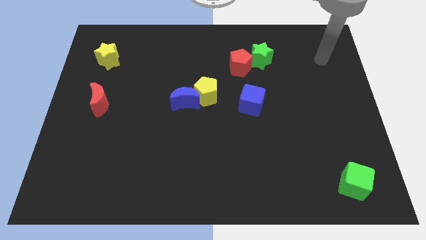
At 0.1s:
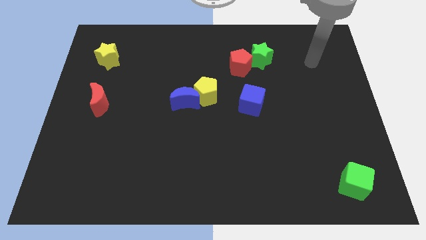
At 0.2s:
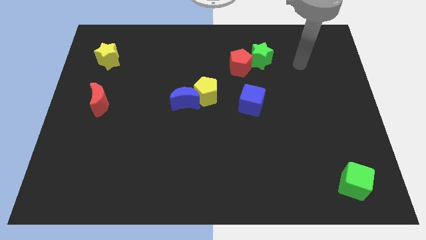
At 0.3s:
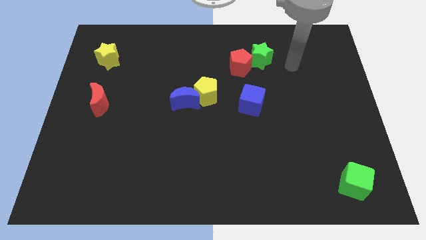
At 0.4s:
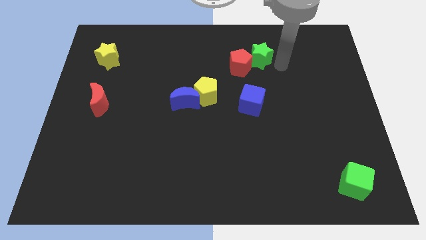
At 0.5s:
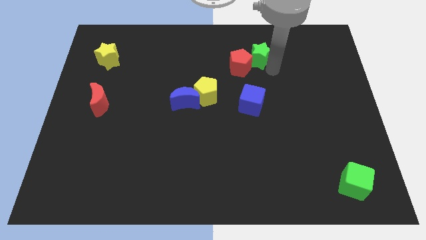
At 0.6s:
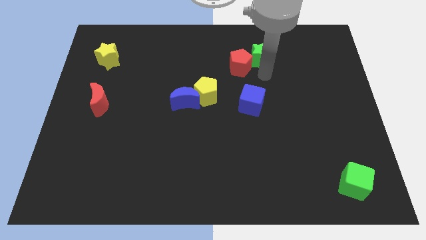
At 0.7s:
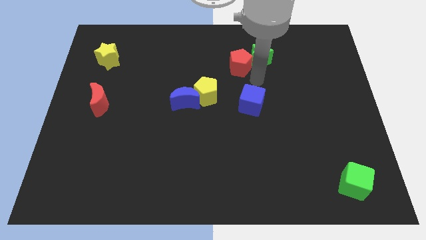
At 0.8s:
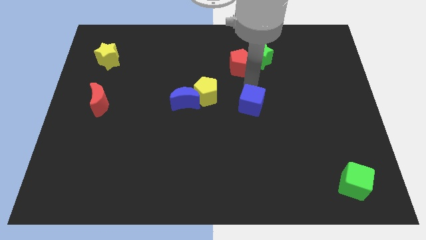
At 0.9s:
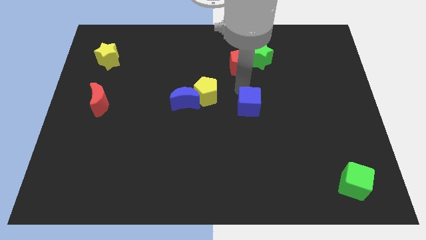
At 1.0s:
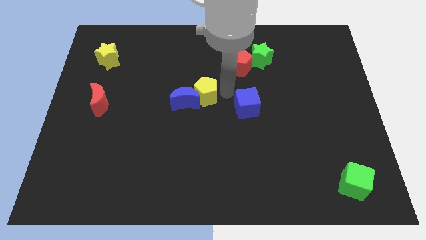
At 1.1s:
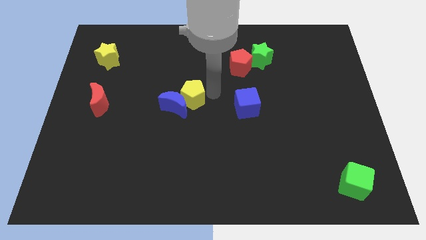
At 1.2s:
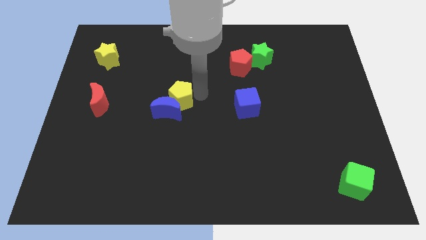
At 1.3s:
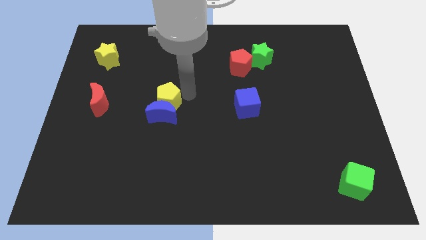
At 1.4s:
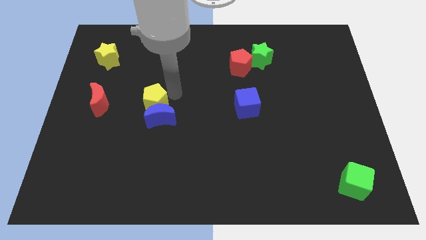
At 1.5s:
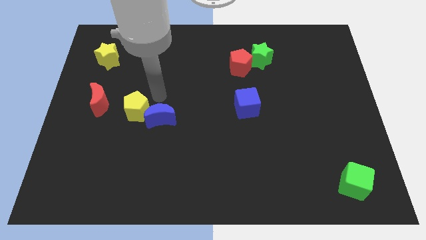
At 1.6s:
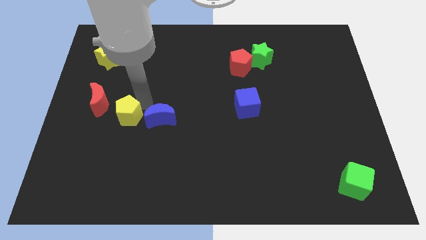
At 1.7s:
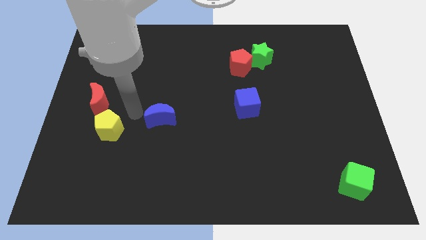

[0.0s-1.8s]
move the blue moon away from the yellow pentagon

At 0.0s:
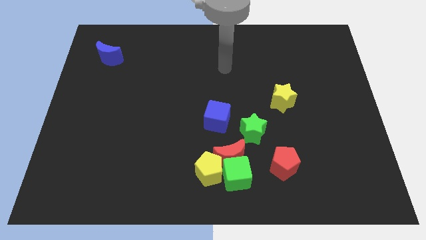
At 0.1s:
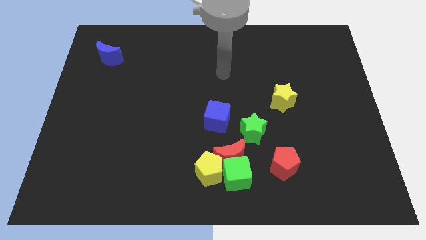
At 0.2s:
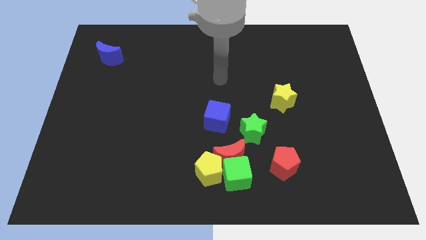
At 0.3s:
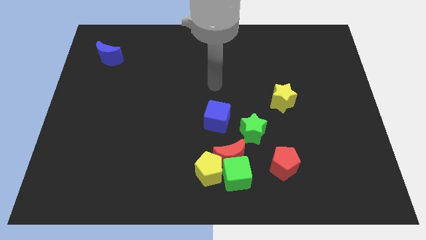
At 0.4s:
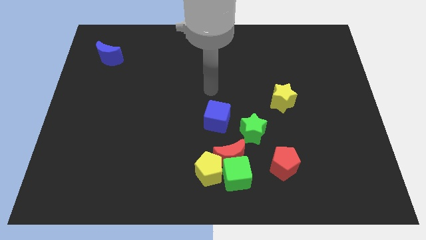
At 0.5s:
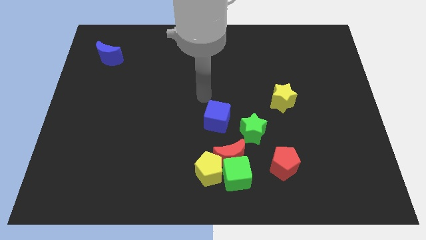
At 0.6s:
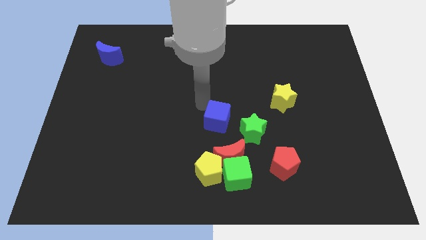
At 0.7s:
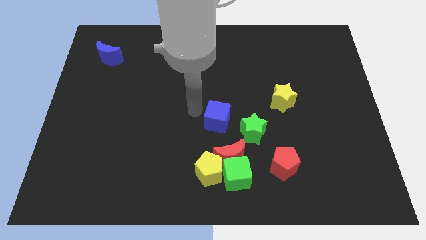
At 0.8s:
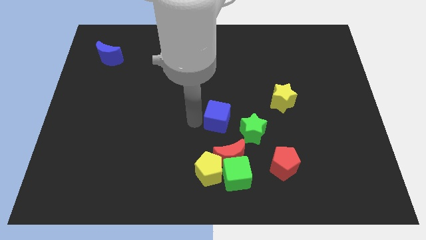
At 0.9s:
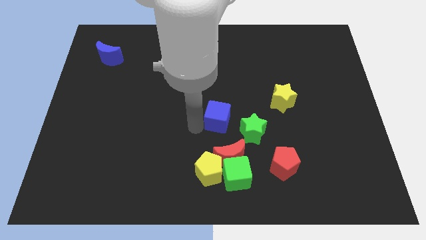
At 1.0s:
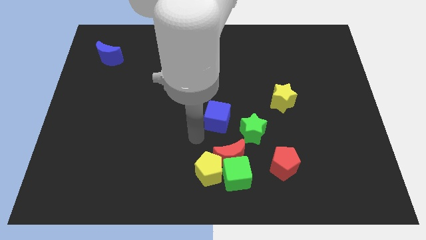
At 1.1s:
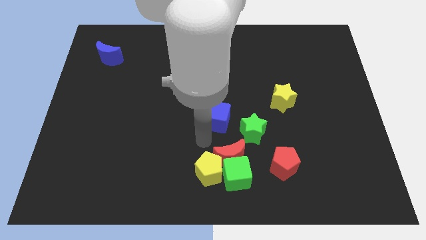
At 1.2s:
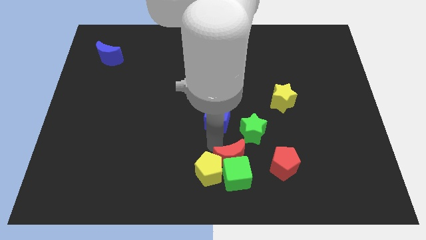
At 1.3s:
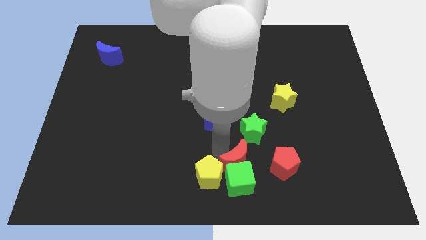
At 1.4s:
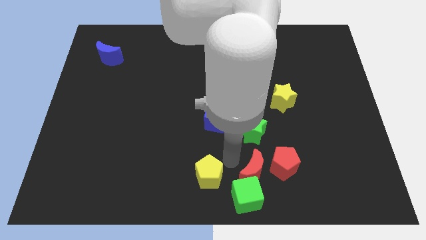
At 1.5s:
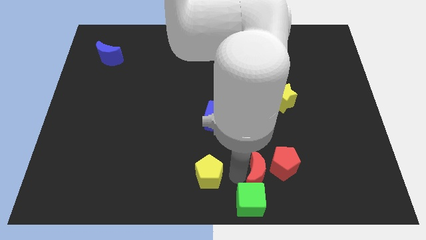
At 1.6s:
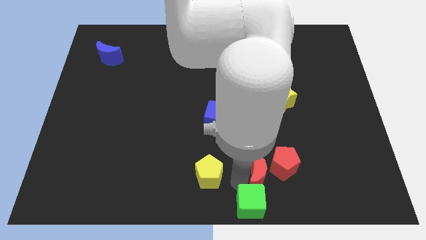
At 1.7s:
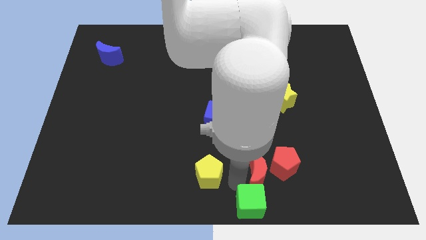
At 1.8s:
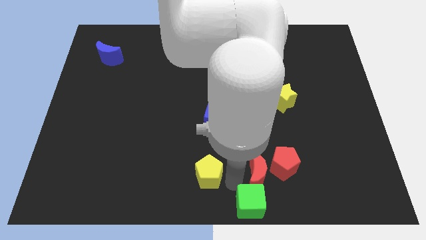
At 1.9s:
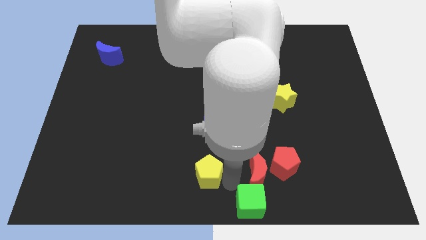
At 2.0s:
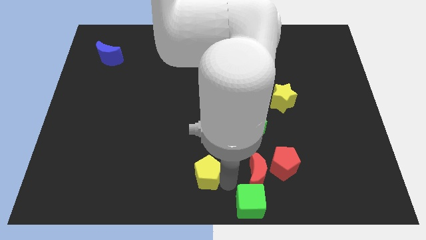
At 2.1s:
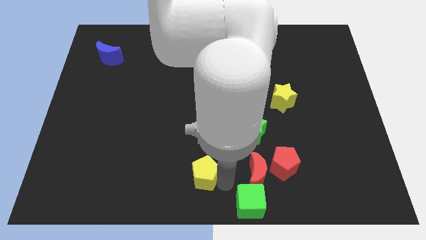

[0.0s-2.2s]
move the yellow pentagon away from the red moon and green cube

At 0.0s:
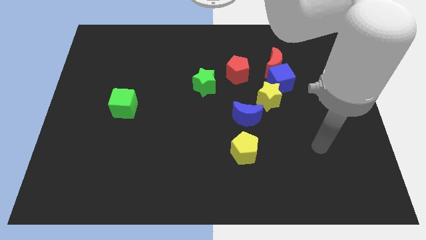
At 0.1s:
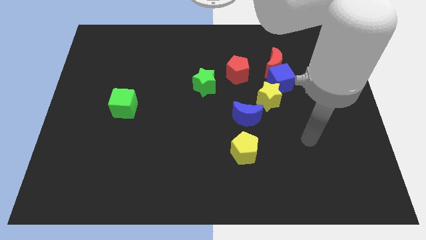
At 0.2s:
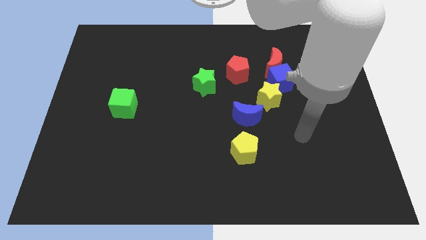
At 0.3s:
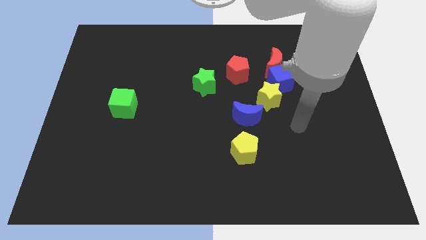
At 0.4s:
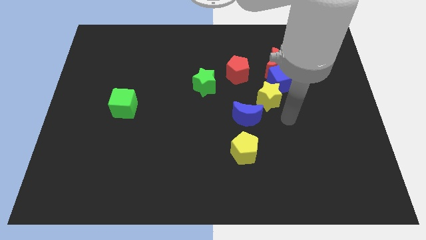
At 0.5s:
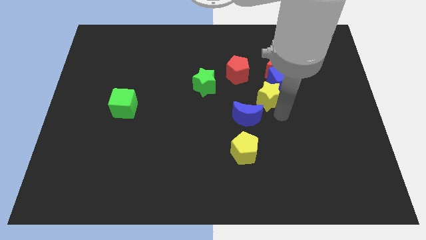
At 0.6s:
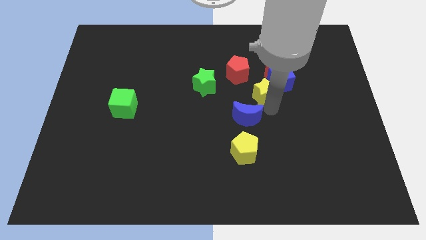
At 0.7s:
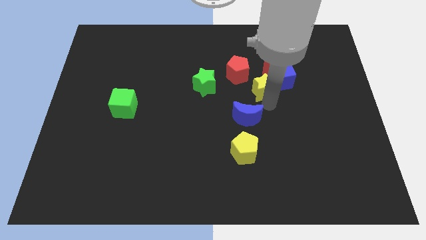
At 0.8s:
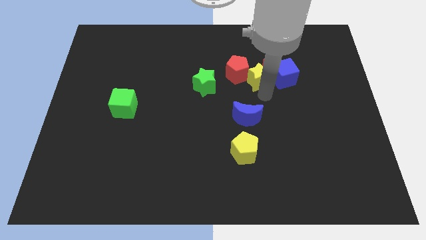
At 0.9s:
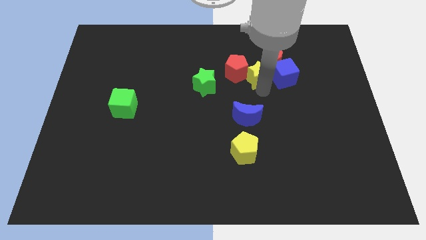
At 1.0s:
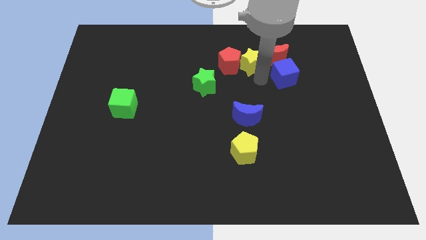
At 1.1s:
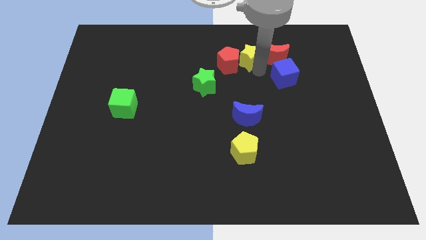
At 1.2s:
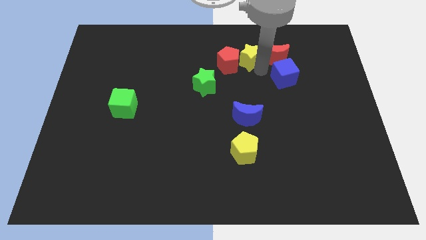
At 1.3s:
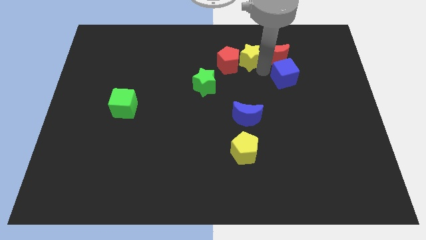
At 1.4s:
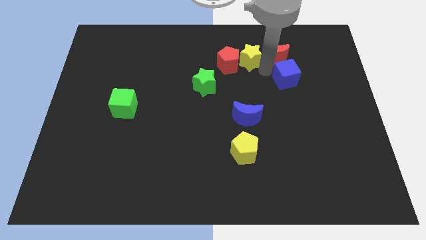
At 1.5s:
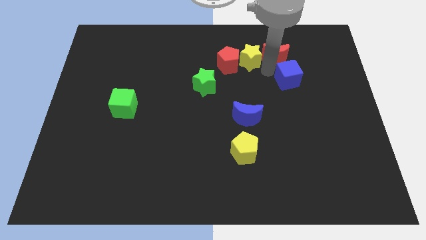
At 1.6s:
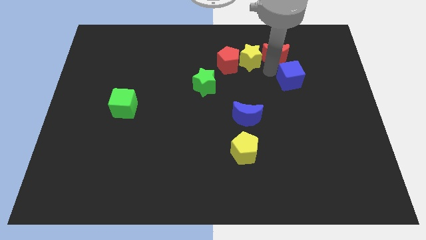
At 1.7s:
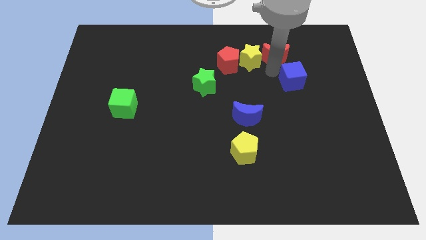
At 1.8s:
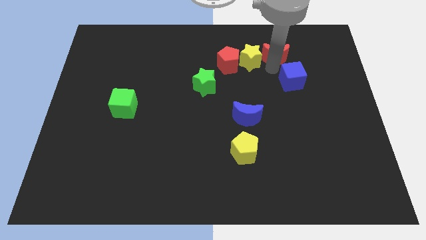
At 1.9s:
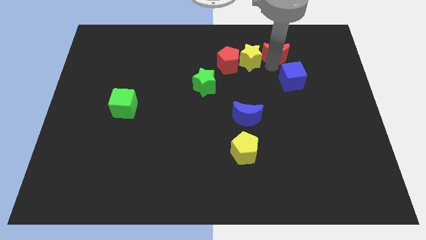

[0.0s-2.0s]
separate the blue cube from the red moon and yellow star

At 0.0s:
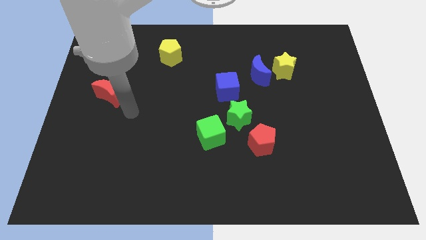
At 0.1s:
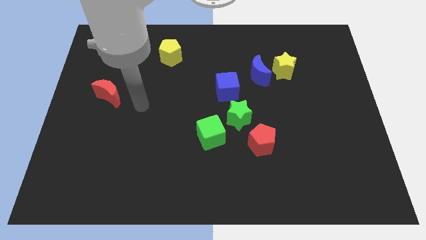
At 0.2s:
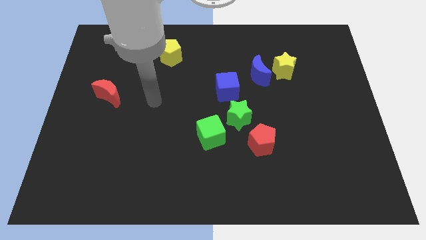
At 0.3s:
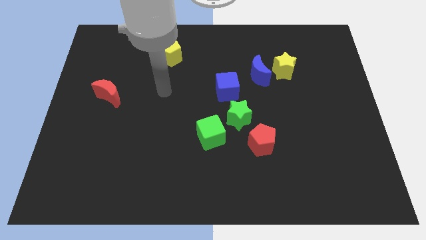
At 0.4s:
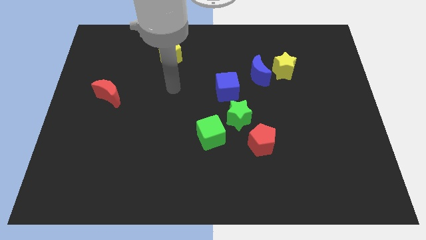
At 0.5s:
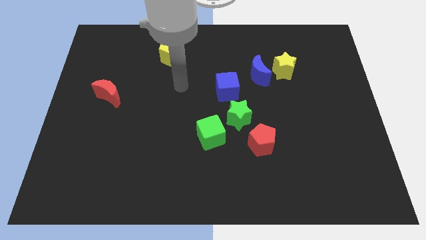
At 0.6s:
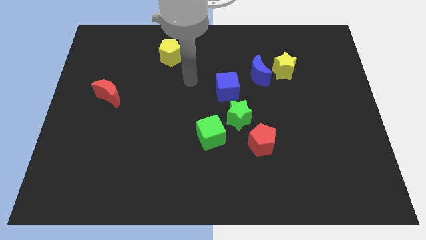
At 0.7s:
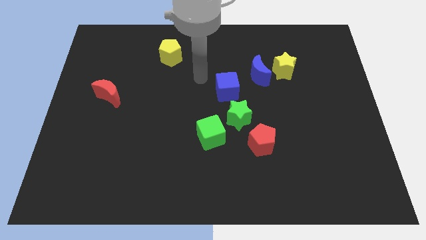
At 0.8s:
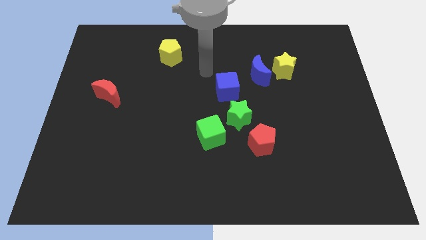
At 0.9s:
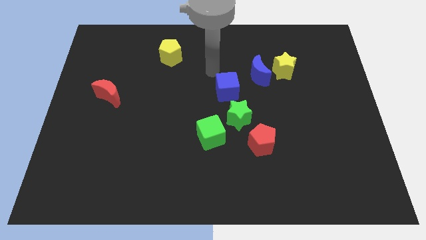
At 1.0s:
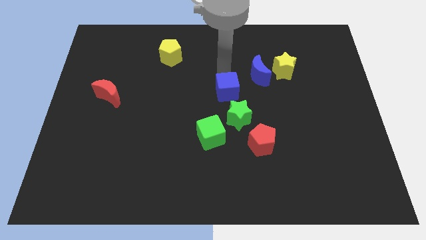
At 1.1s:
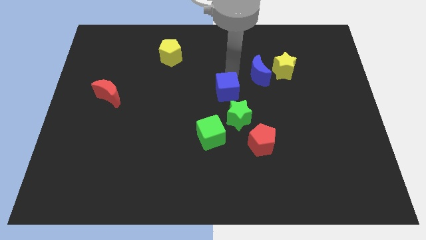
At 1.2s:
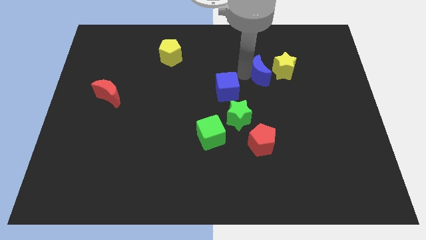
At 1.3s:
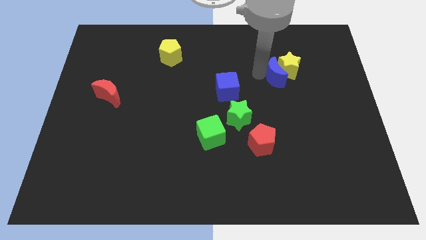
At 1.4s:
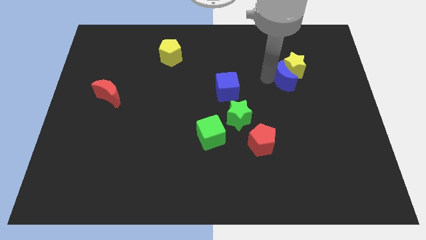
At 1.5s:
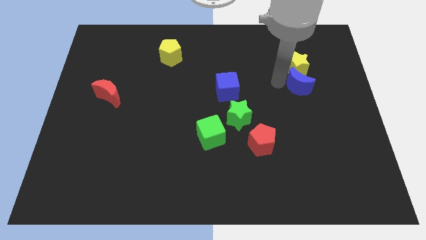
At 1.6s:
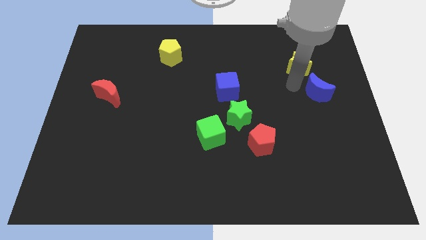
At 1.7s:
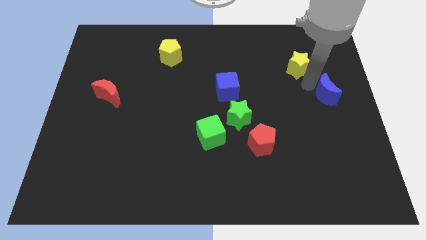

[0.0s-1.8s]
move the yellow star away from the blue moon

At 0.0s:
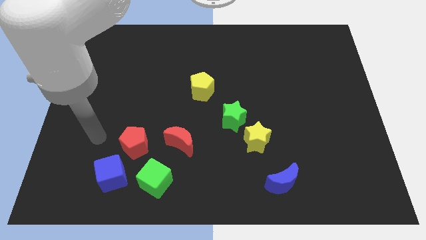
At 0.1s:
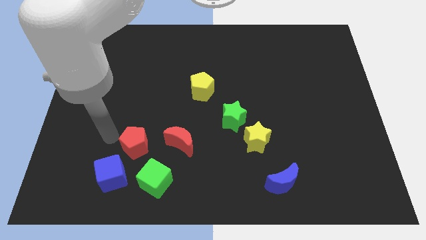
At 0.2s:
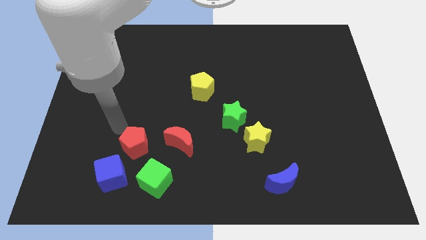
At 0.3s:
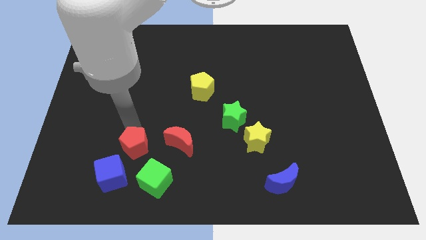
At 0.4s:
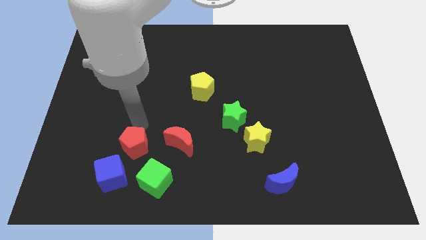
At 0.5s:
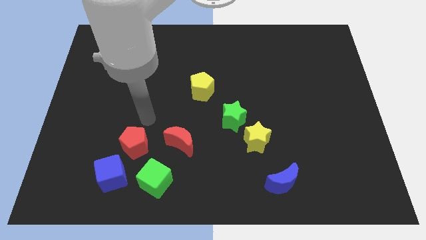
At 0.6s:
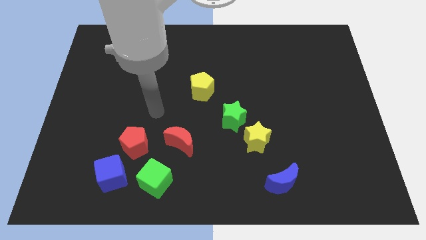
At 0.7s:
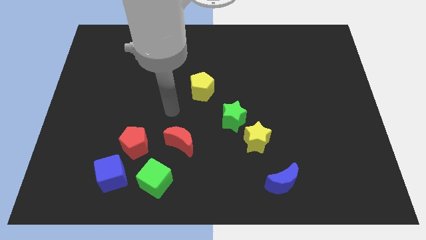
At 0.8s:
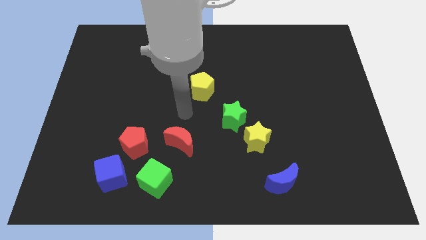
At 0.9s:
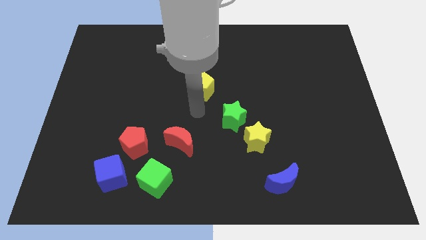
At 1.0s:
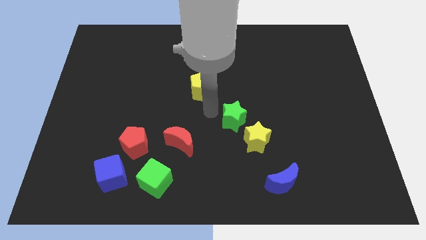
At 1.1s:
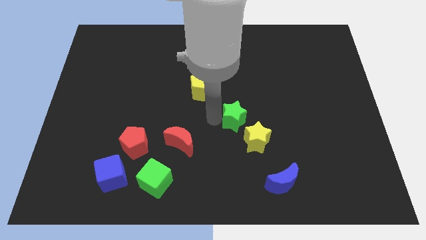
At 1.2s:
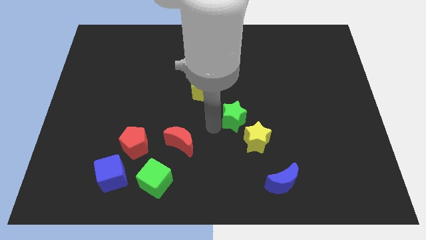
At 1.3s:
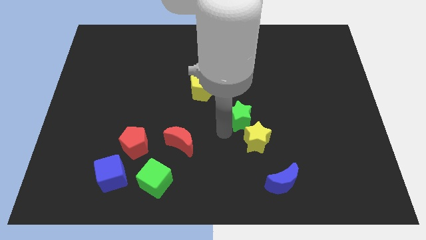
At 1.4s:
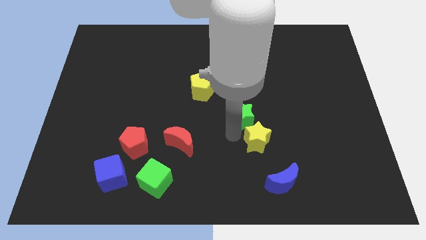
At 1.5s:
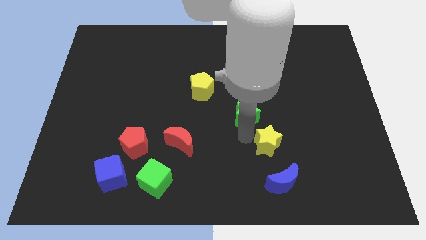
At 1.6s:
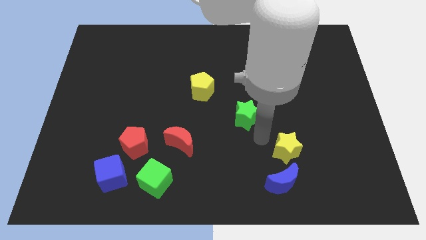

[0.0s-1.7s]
move the green star away from the yellow star

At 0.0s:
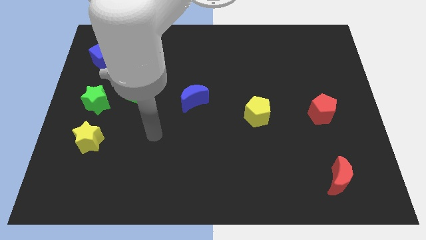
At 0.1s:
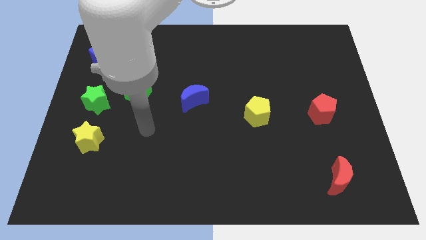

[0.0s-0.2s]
move the green cube away from the green star
